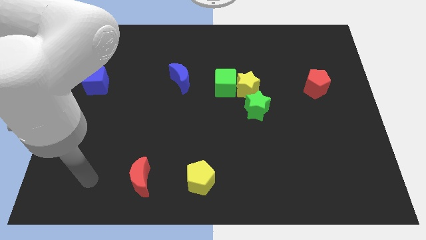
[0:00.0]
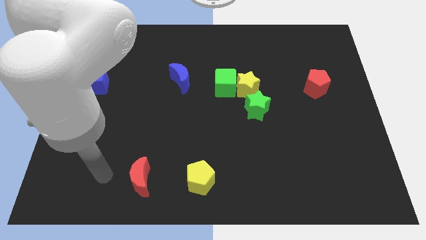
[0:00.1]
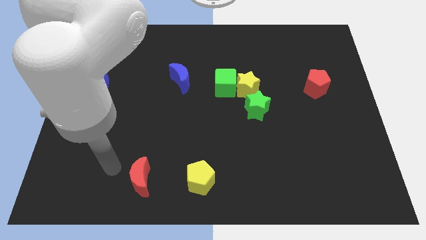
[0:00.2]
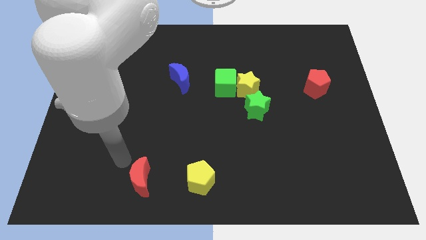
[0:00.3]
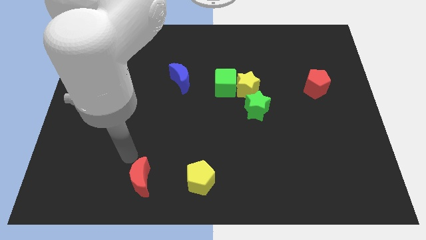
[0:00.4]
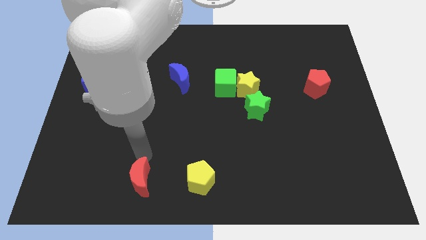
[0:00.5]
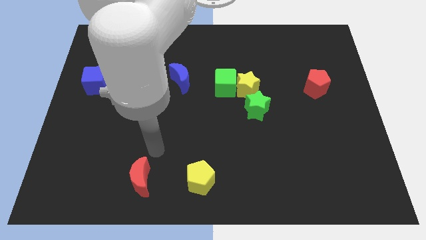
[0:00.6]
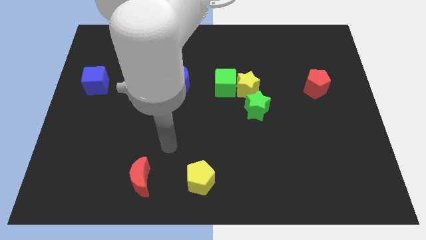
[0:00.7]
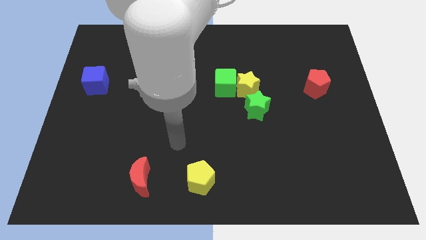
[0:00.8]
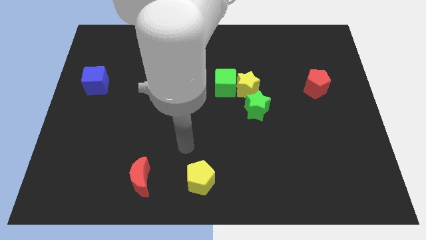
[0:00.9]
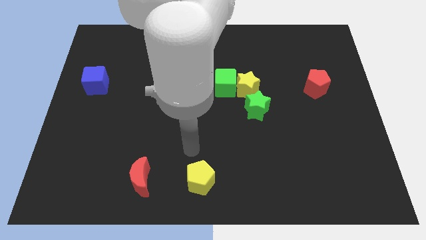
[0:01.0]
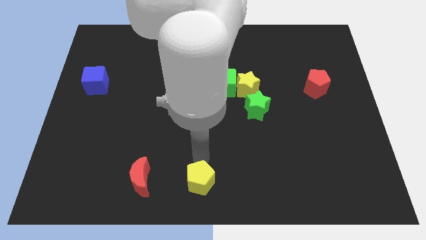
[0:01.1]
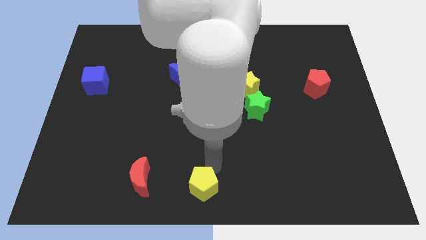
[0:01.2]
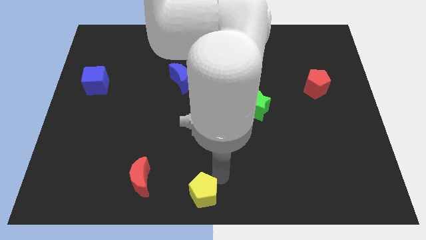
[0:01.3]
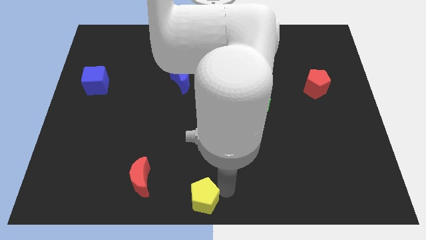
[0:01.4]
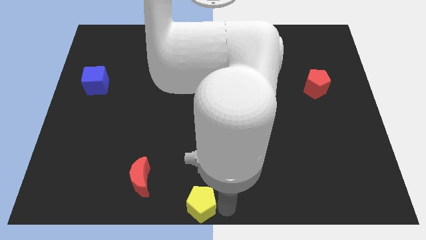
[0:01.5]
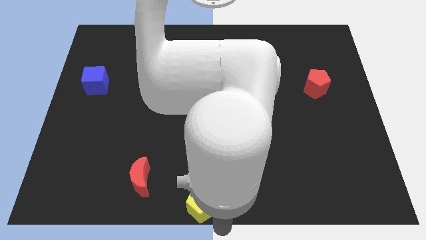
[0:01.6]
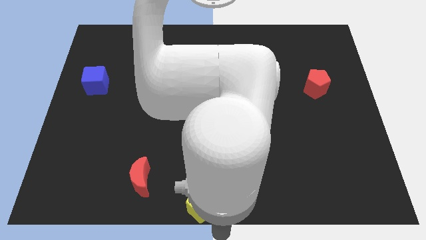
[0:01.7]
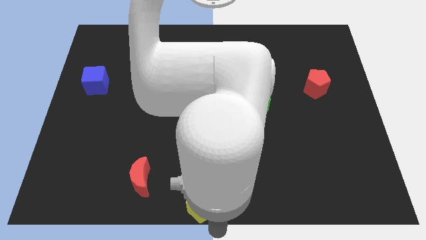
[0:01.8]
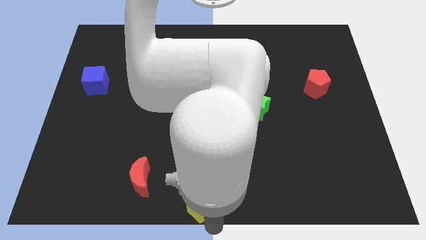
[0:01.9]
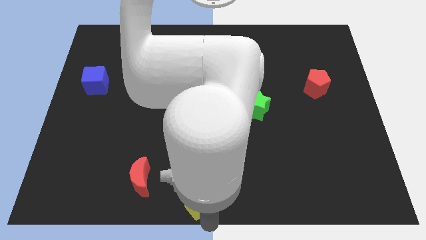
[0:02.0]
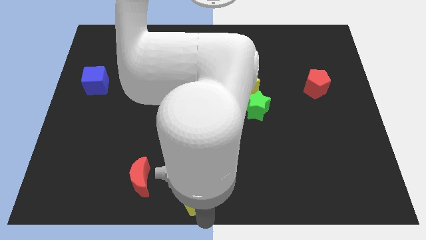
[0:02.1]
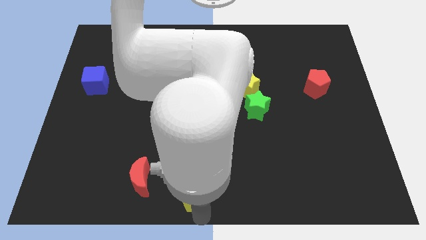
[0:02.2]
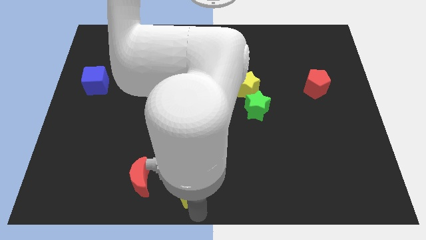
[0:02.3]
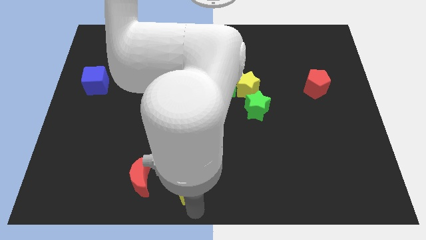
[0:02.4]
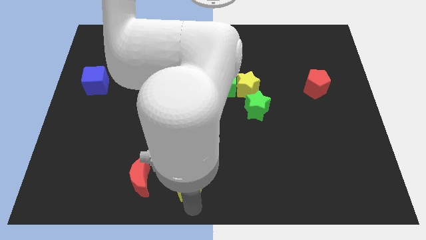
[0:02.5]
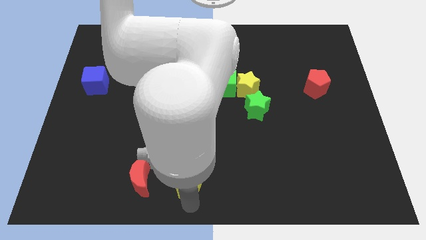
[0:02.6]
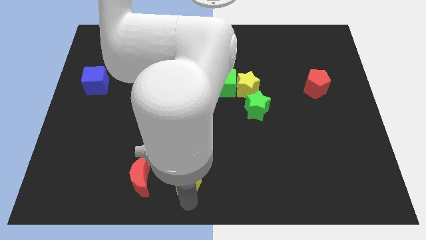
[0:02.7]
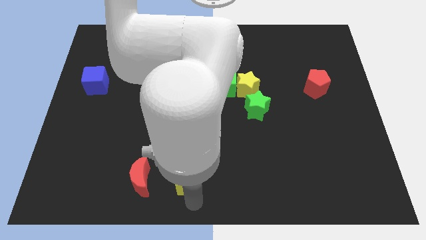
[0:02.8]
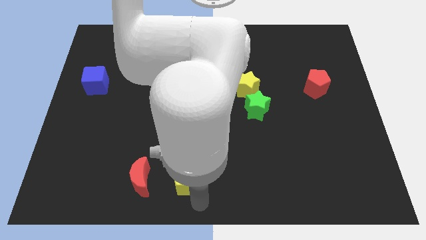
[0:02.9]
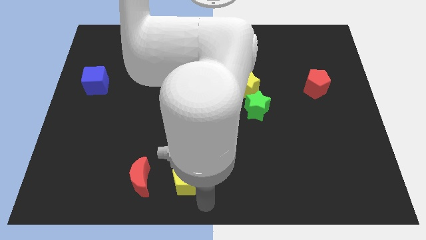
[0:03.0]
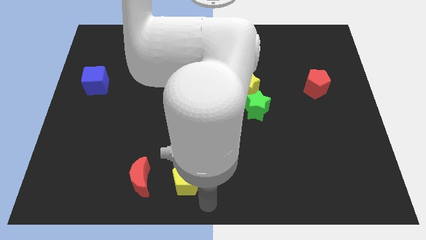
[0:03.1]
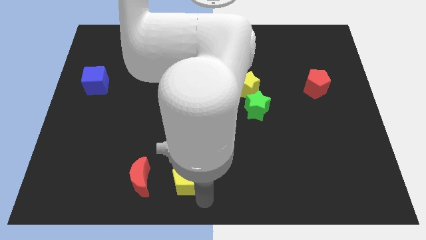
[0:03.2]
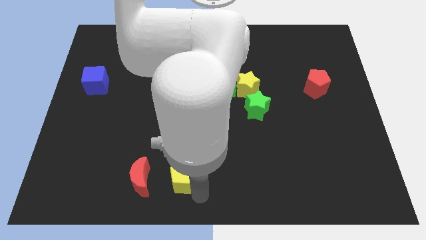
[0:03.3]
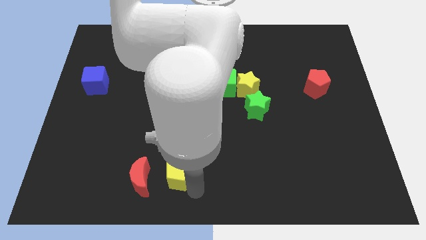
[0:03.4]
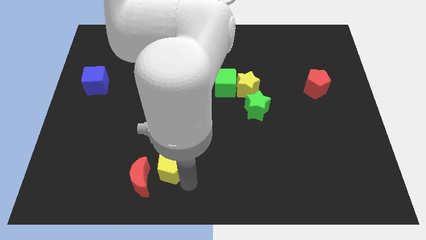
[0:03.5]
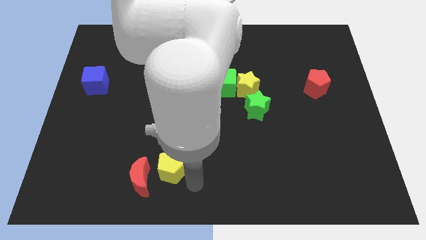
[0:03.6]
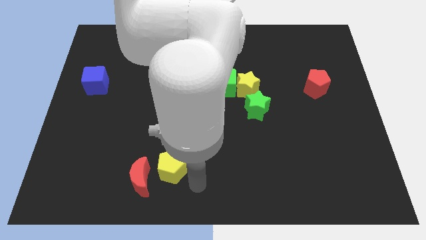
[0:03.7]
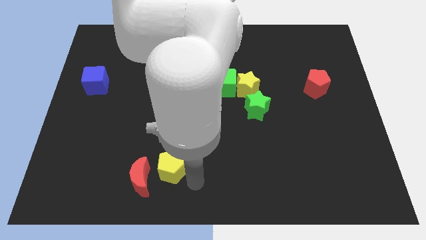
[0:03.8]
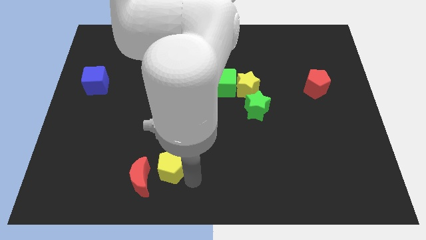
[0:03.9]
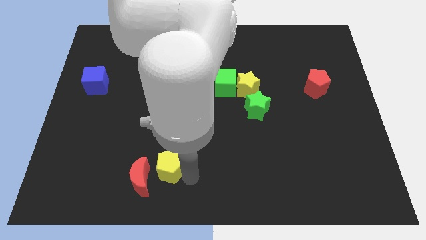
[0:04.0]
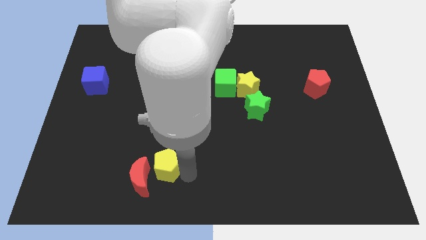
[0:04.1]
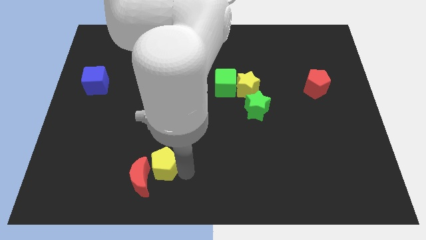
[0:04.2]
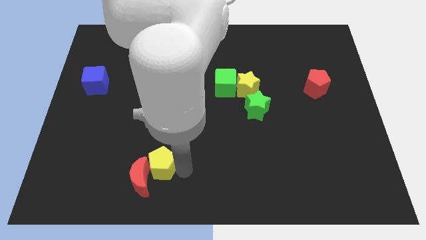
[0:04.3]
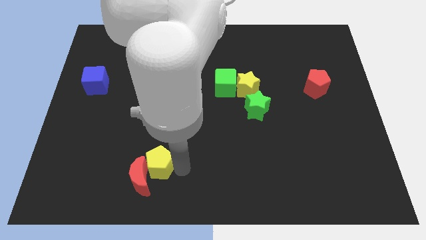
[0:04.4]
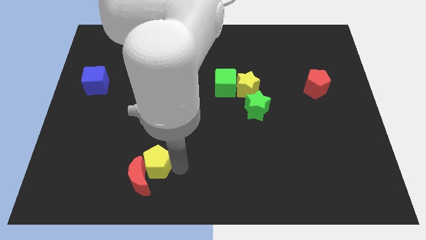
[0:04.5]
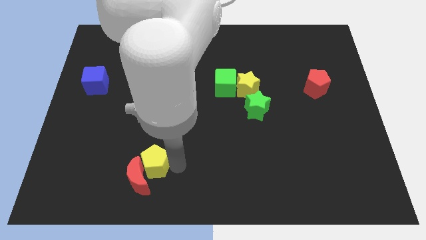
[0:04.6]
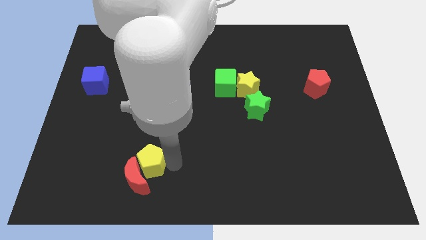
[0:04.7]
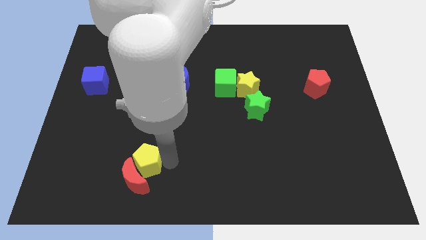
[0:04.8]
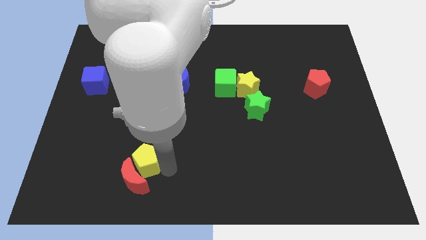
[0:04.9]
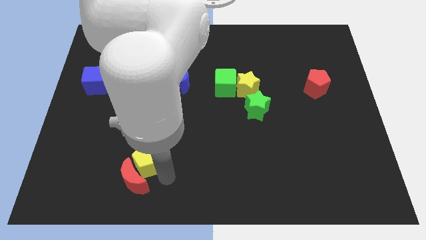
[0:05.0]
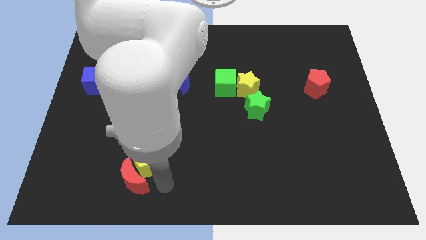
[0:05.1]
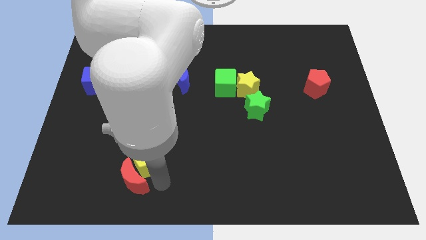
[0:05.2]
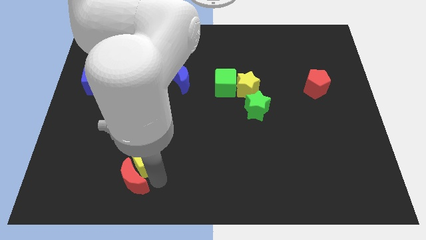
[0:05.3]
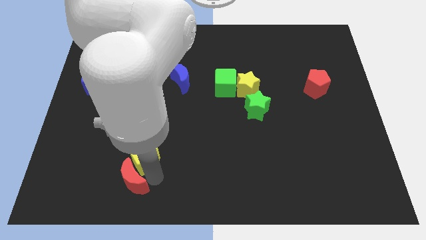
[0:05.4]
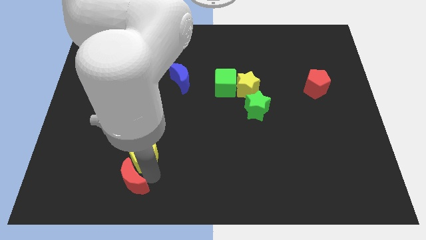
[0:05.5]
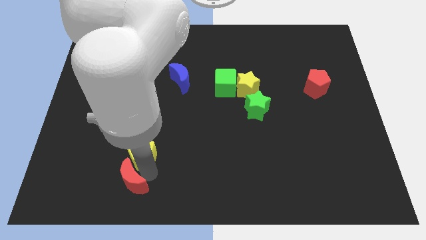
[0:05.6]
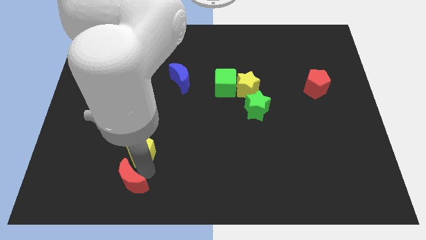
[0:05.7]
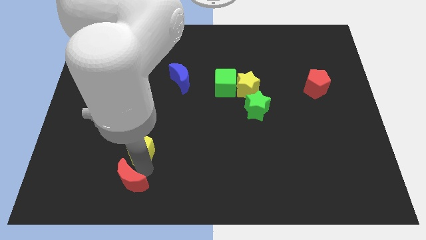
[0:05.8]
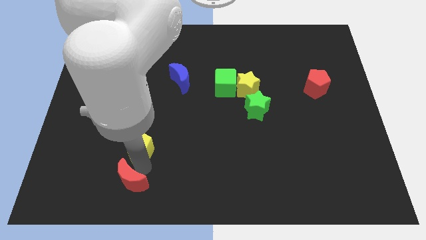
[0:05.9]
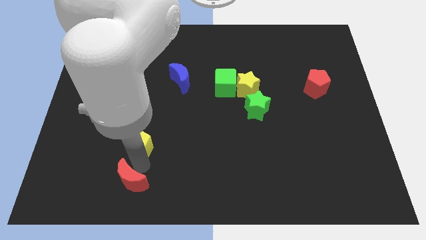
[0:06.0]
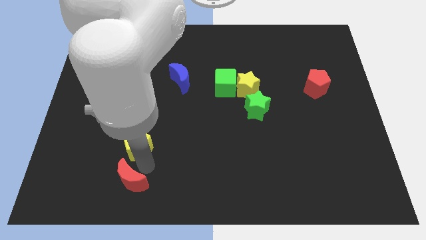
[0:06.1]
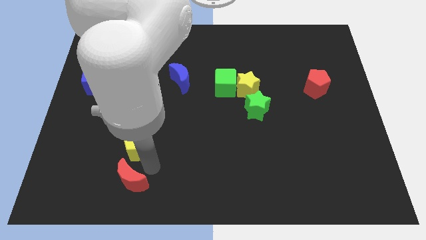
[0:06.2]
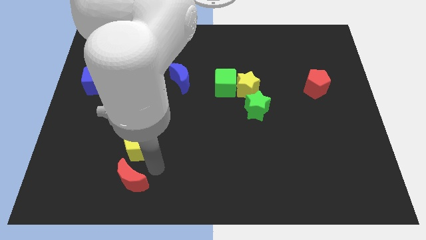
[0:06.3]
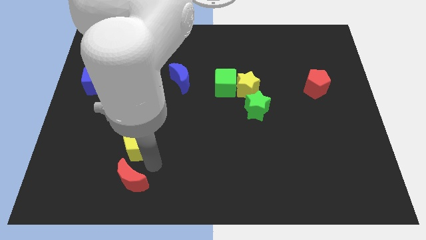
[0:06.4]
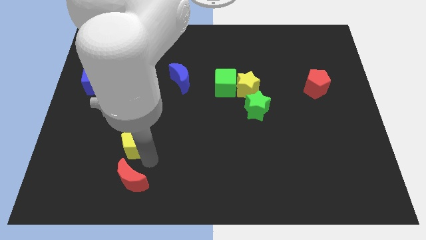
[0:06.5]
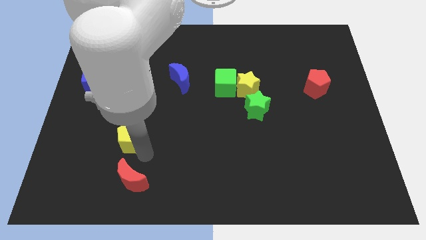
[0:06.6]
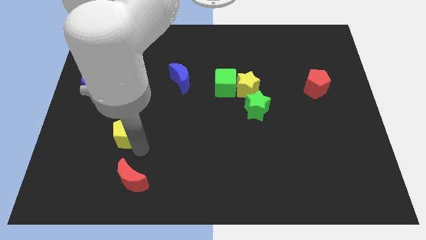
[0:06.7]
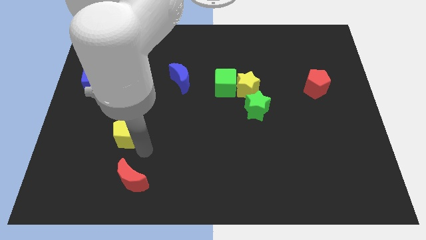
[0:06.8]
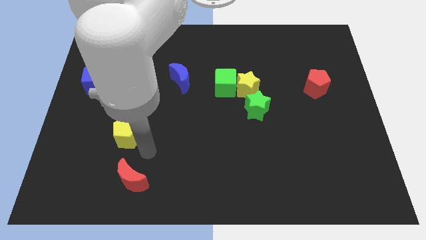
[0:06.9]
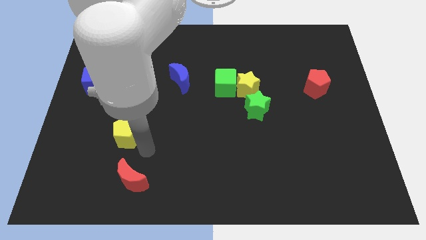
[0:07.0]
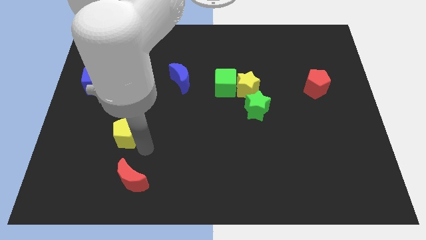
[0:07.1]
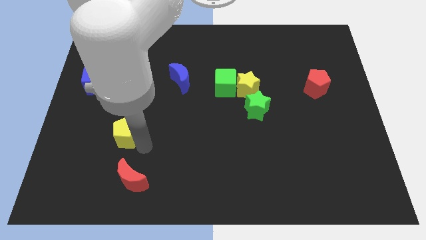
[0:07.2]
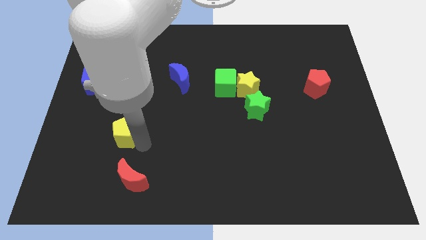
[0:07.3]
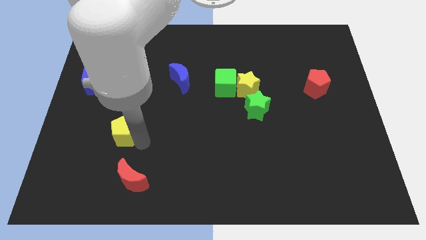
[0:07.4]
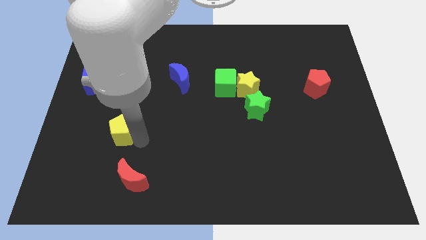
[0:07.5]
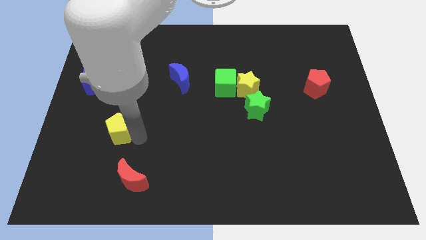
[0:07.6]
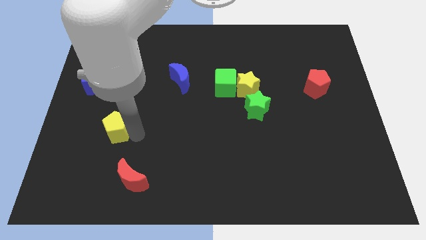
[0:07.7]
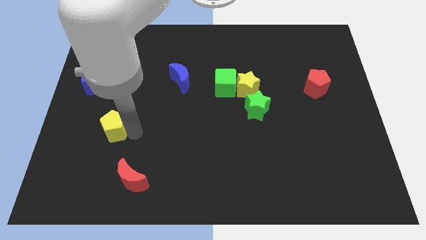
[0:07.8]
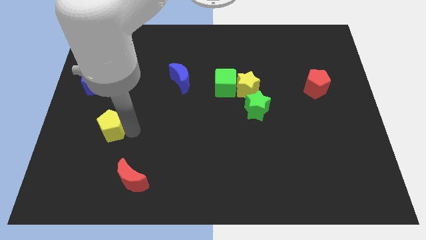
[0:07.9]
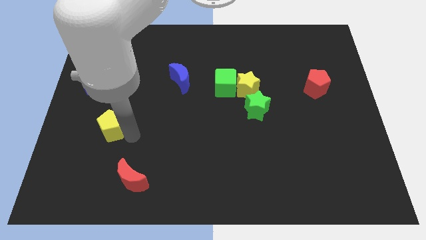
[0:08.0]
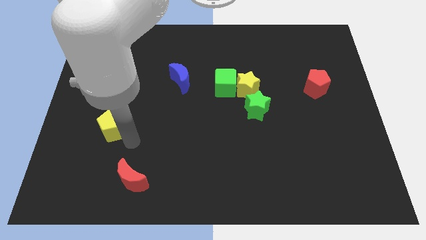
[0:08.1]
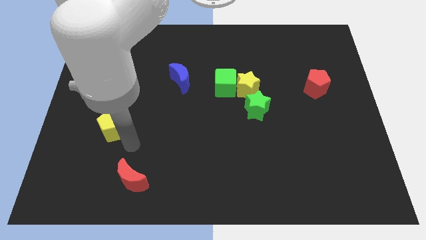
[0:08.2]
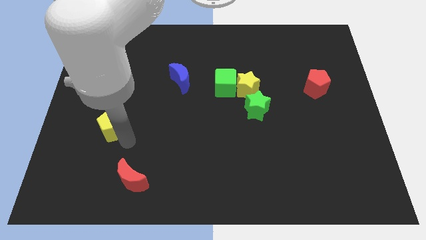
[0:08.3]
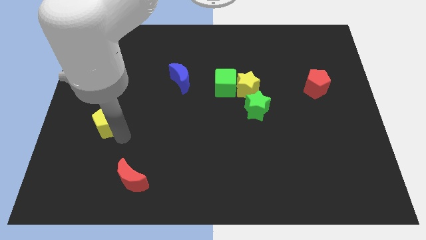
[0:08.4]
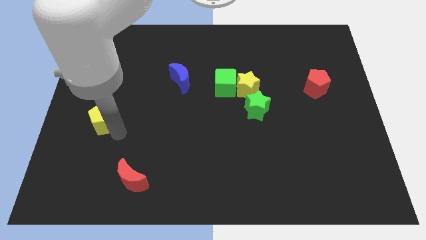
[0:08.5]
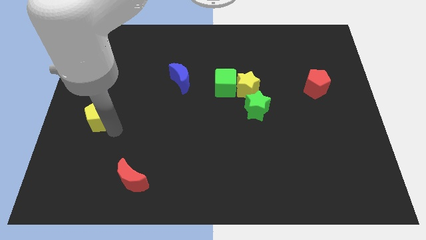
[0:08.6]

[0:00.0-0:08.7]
slide the yellow pentagon to the center left
